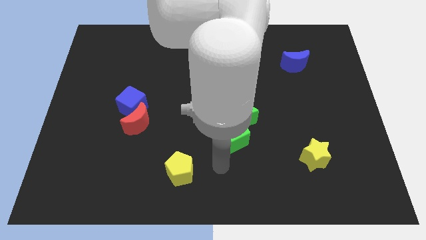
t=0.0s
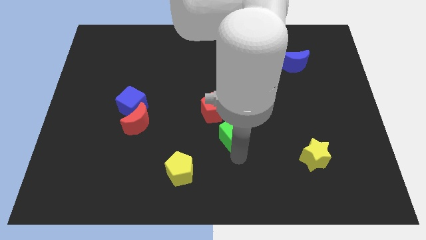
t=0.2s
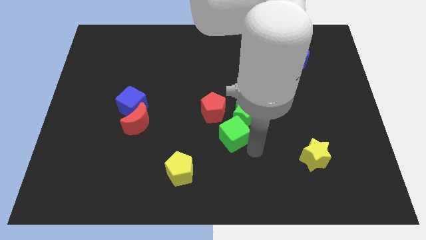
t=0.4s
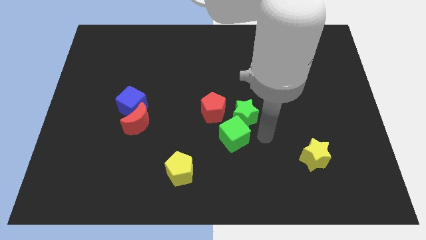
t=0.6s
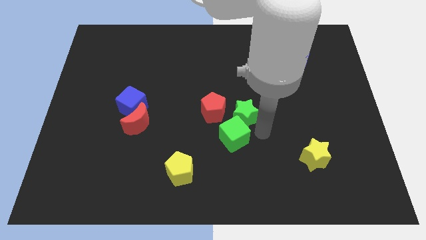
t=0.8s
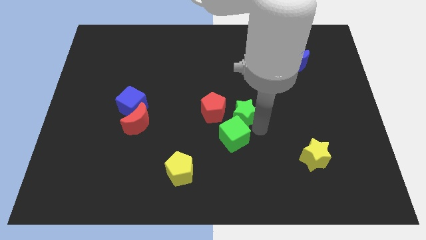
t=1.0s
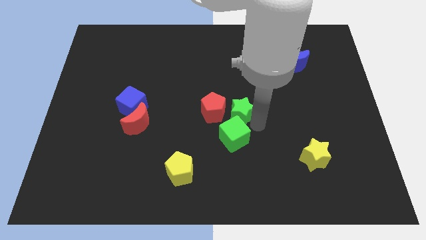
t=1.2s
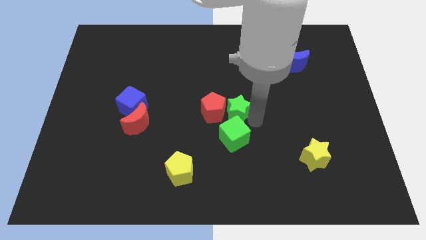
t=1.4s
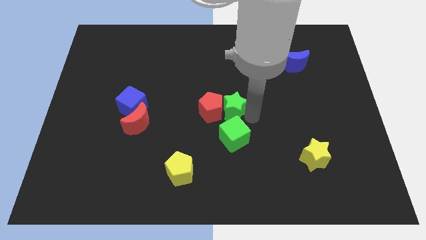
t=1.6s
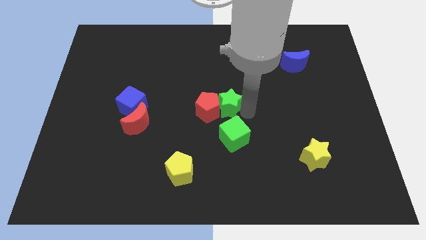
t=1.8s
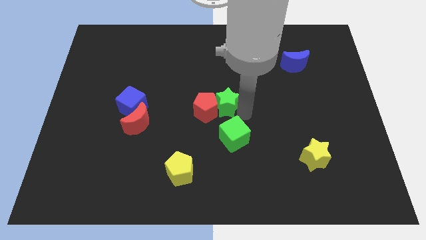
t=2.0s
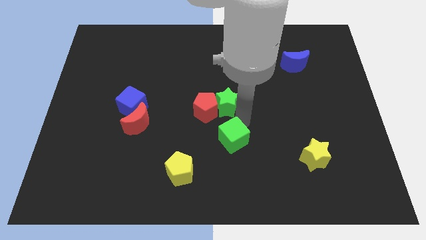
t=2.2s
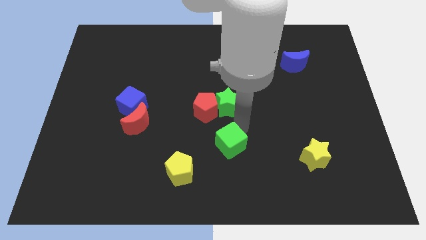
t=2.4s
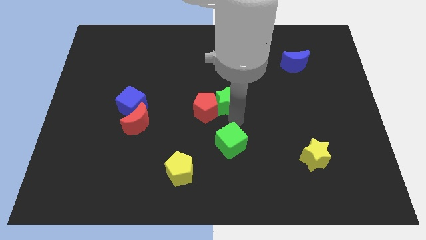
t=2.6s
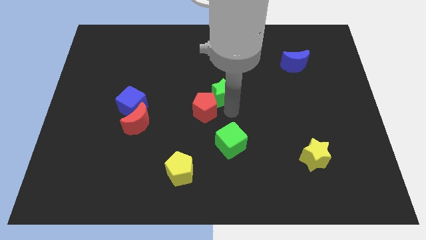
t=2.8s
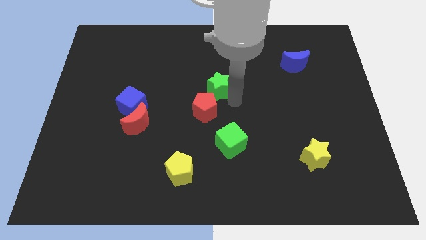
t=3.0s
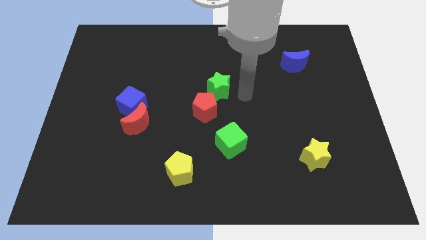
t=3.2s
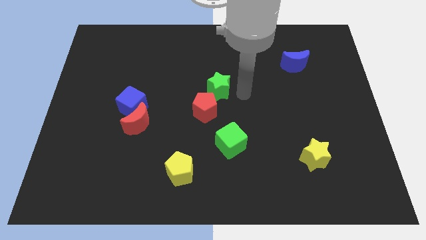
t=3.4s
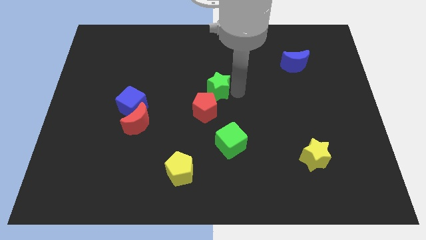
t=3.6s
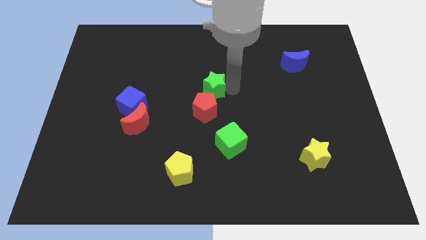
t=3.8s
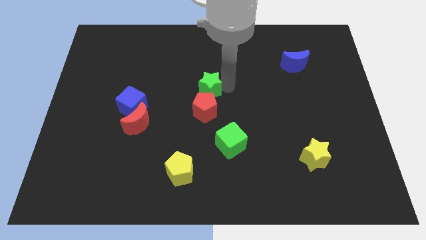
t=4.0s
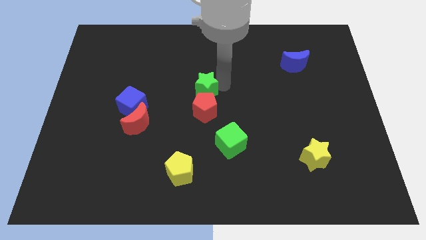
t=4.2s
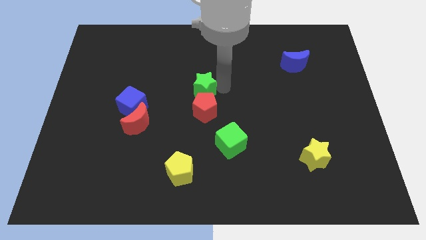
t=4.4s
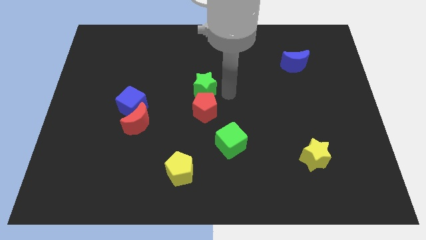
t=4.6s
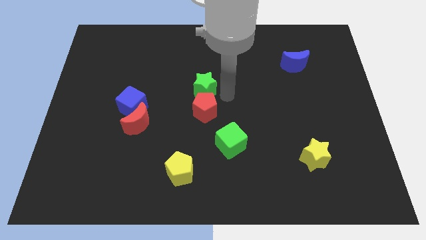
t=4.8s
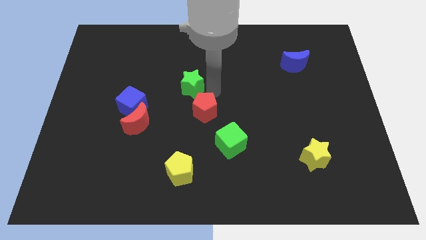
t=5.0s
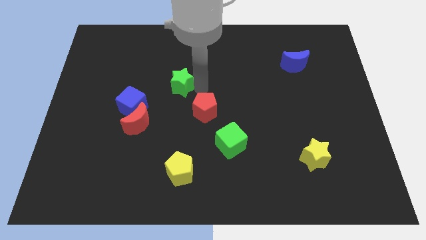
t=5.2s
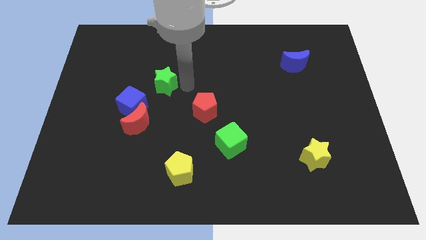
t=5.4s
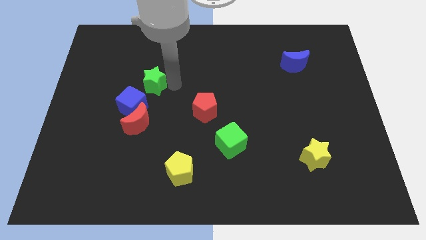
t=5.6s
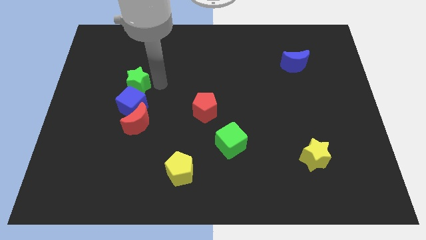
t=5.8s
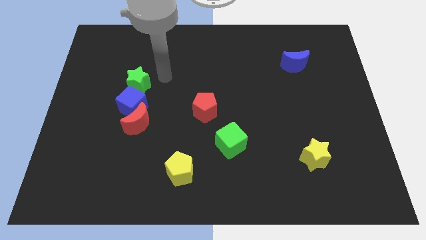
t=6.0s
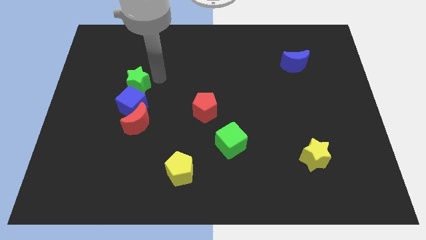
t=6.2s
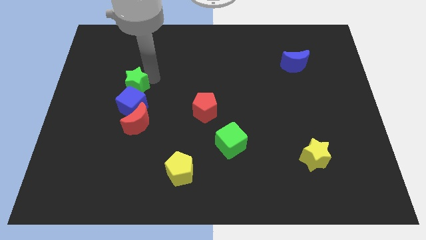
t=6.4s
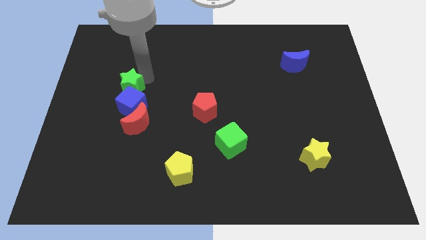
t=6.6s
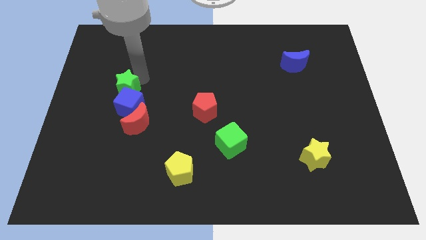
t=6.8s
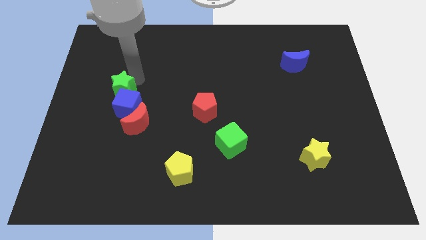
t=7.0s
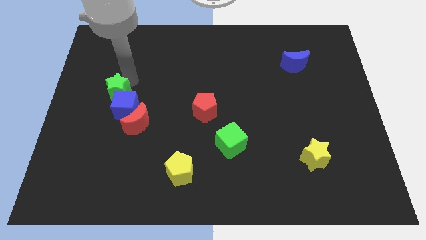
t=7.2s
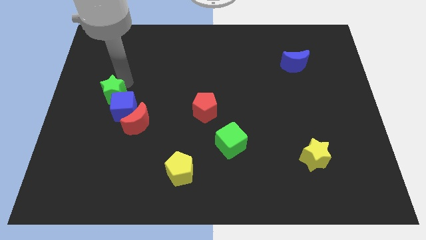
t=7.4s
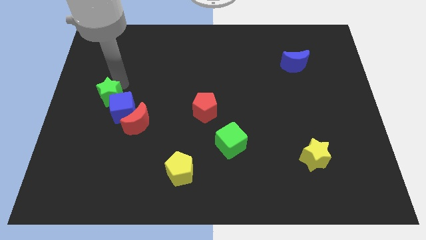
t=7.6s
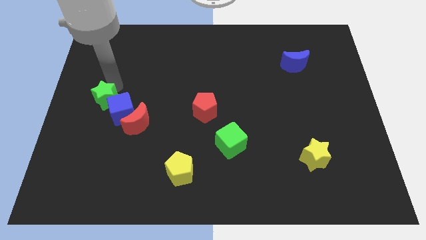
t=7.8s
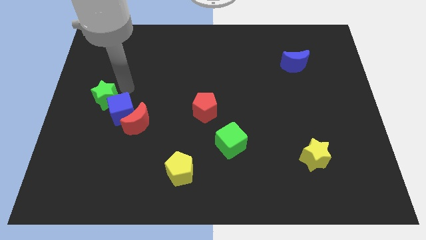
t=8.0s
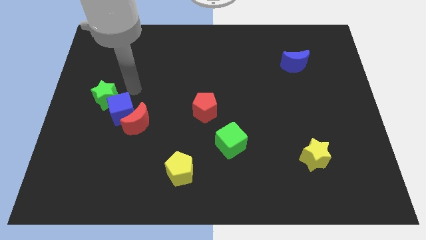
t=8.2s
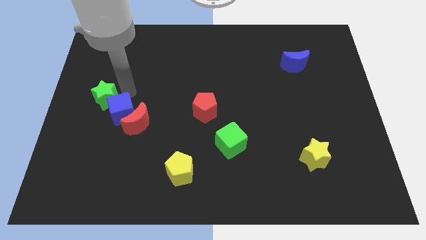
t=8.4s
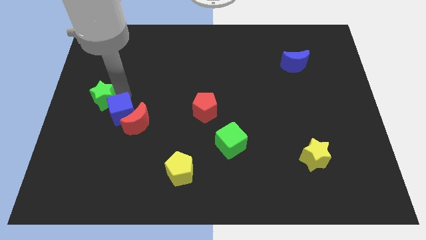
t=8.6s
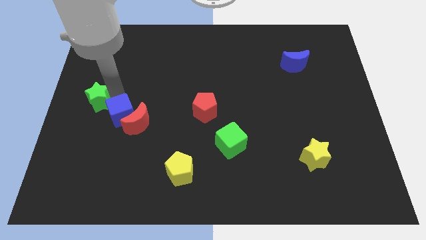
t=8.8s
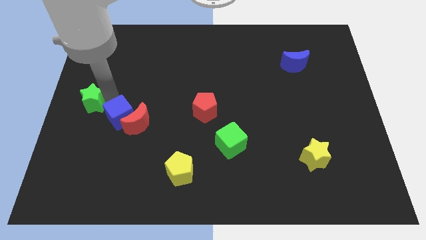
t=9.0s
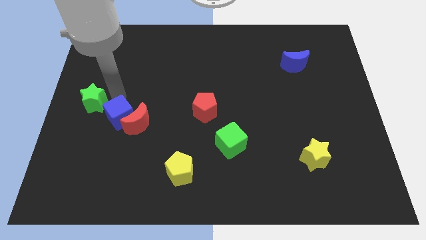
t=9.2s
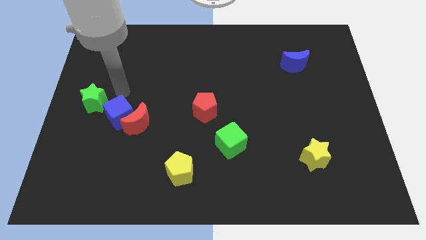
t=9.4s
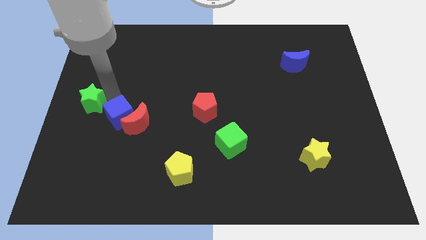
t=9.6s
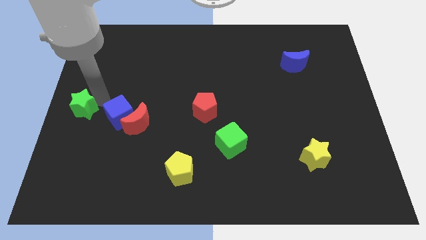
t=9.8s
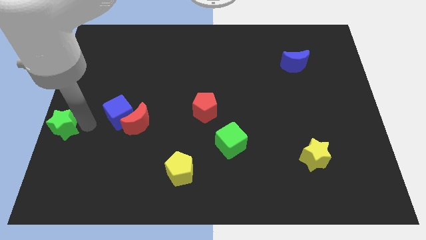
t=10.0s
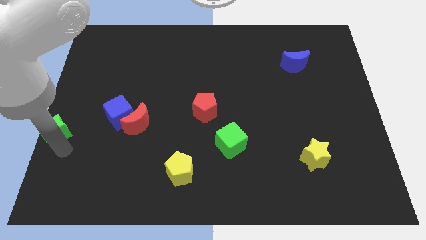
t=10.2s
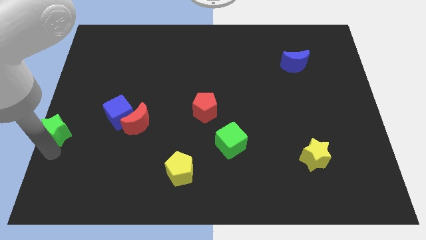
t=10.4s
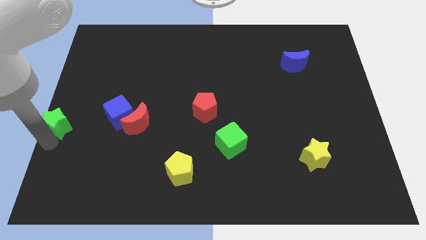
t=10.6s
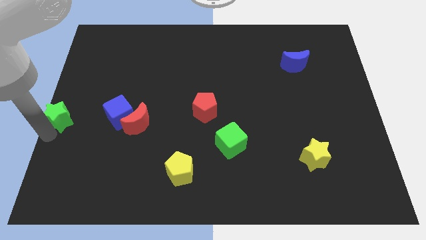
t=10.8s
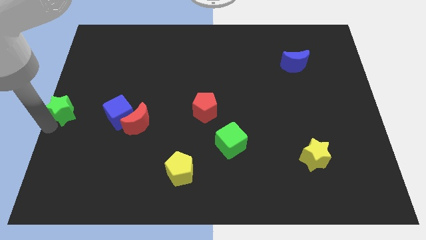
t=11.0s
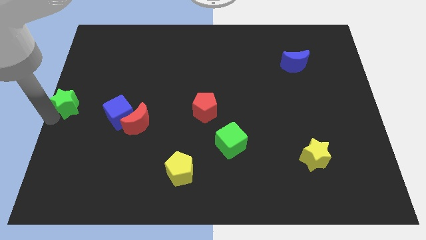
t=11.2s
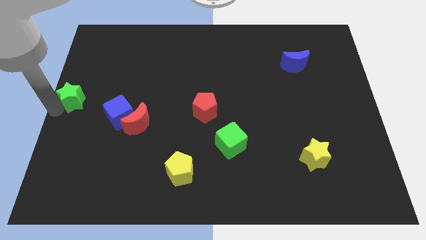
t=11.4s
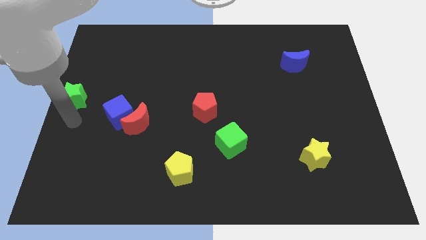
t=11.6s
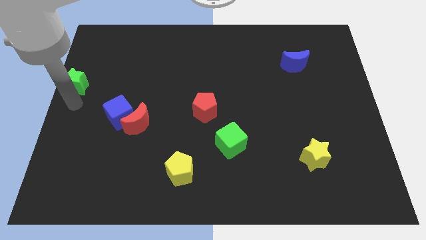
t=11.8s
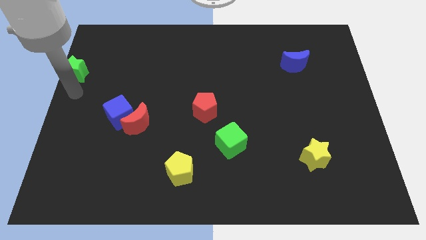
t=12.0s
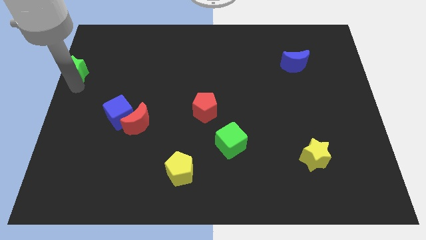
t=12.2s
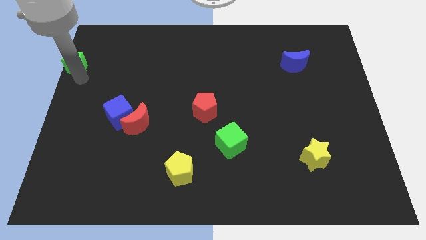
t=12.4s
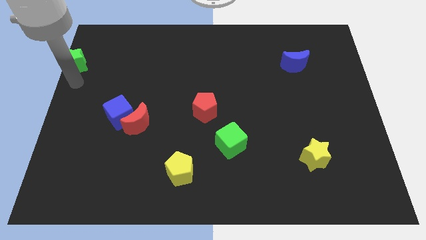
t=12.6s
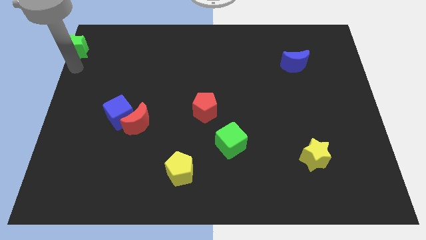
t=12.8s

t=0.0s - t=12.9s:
put the green star to the top left of the board
